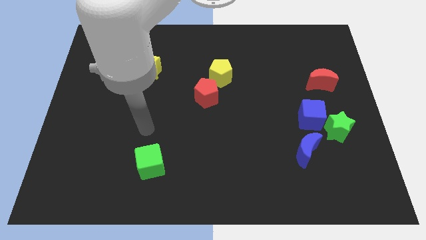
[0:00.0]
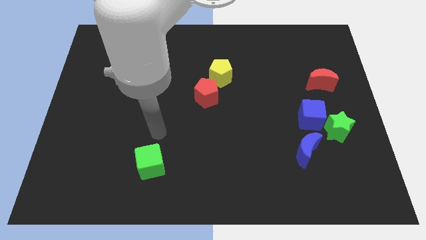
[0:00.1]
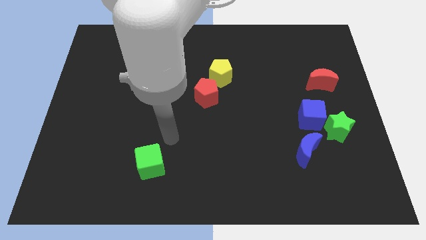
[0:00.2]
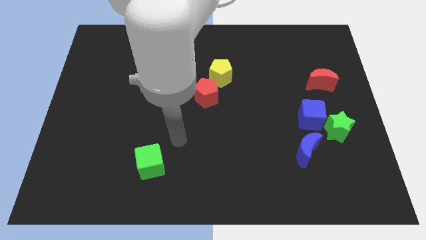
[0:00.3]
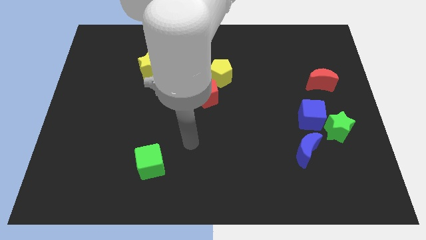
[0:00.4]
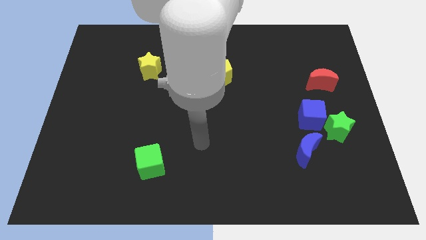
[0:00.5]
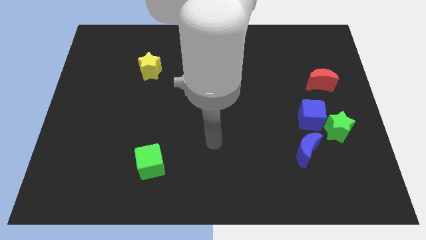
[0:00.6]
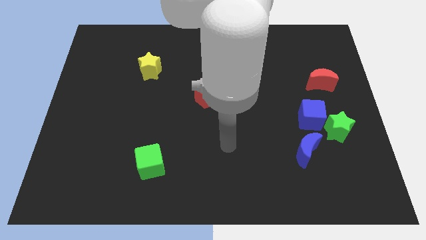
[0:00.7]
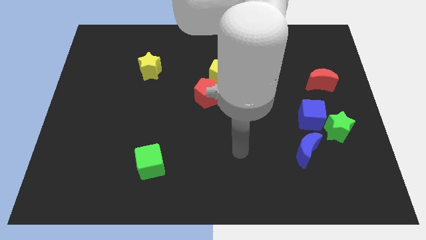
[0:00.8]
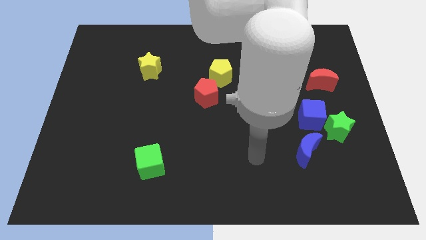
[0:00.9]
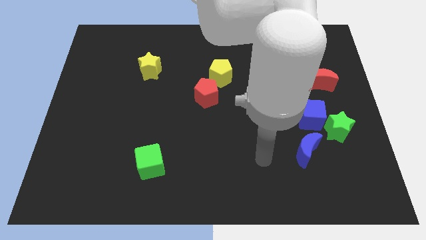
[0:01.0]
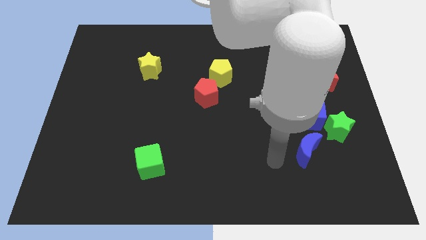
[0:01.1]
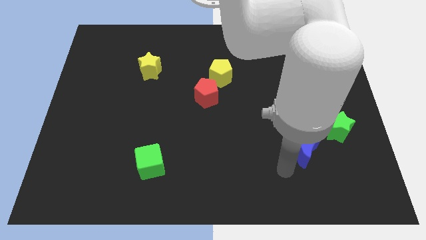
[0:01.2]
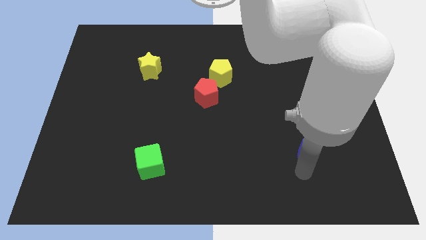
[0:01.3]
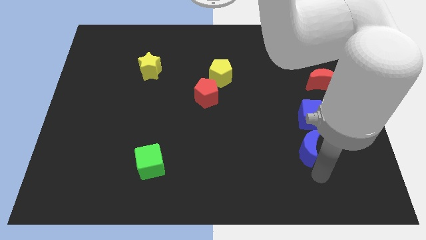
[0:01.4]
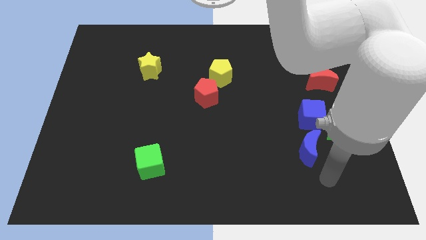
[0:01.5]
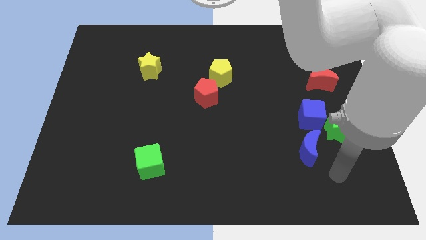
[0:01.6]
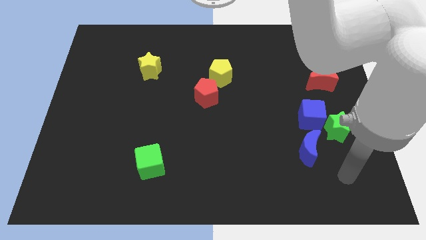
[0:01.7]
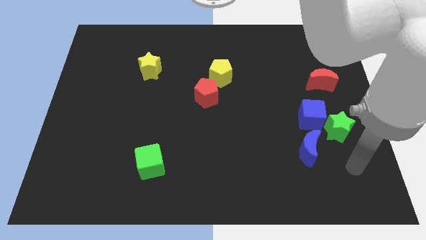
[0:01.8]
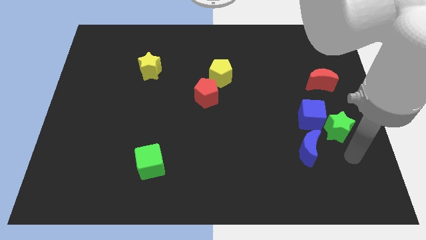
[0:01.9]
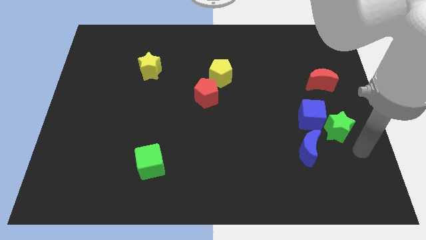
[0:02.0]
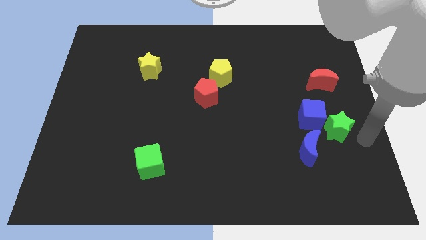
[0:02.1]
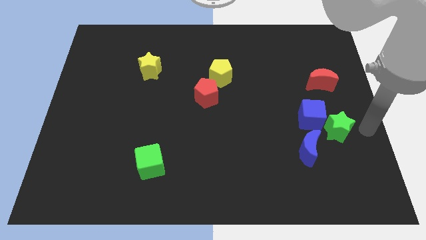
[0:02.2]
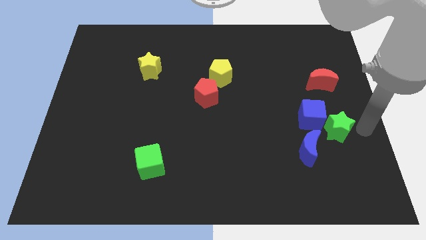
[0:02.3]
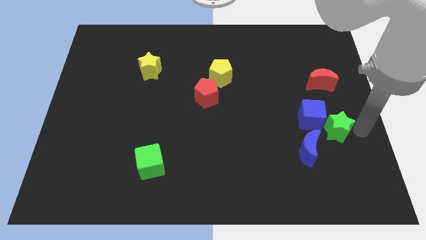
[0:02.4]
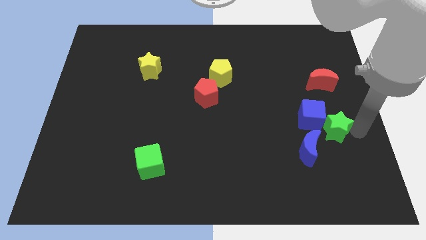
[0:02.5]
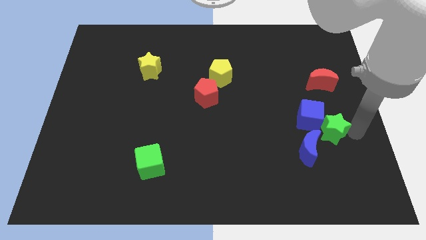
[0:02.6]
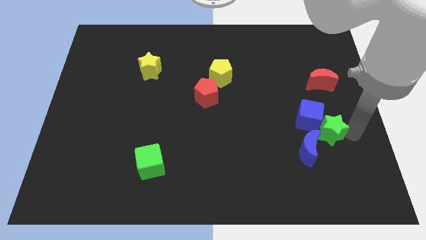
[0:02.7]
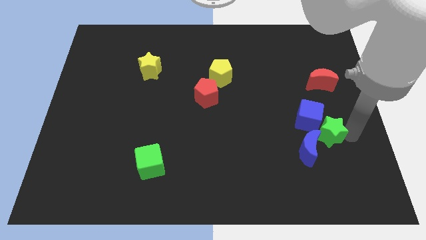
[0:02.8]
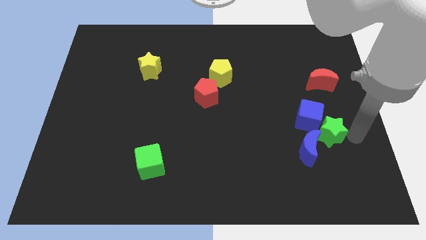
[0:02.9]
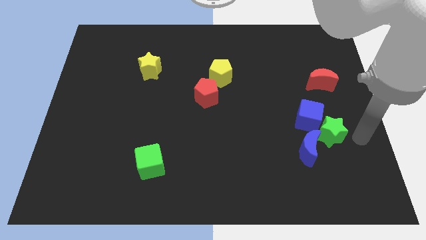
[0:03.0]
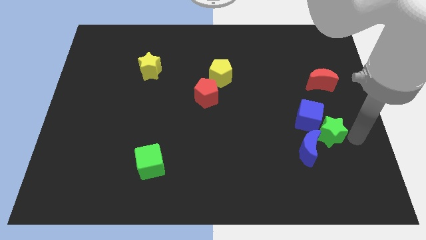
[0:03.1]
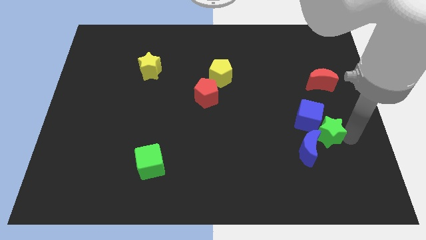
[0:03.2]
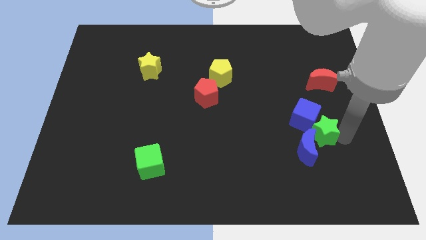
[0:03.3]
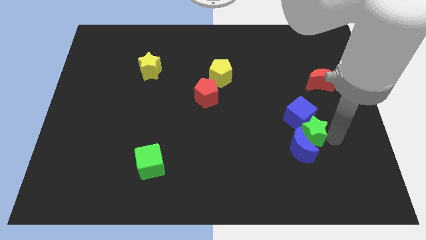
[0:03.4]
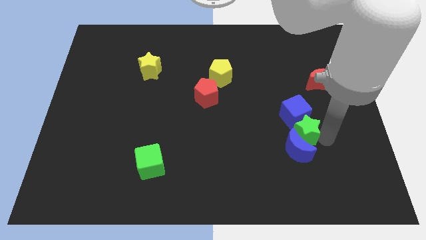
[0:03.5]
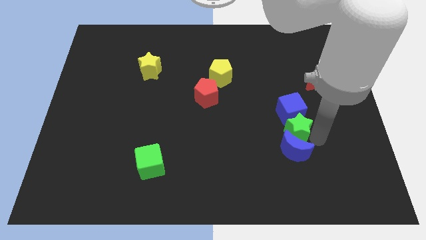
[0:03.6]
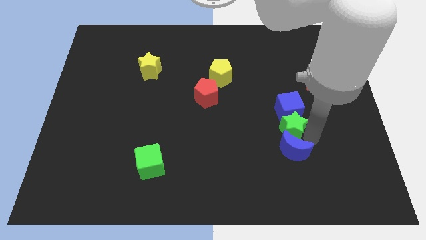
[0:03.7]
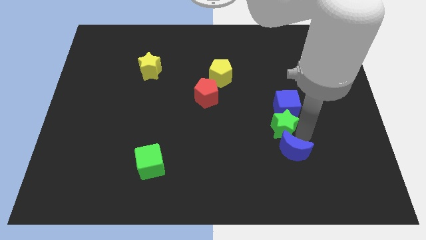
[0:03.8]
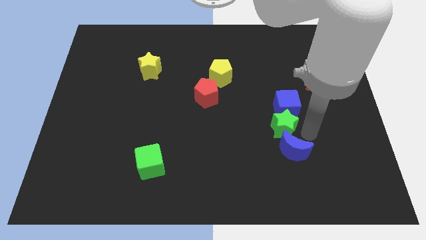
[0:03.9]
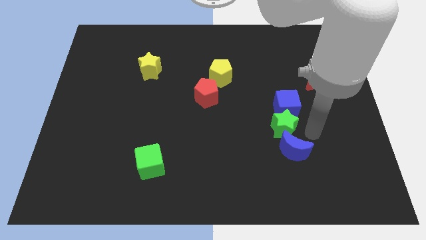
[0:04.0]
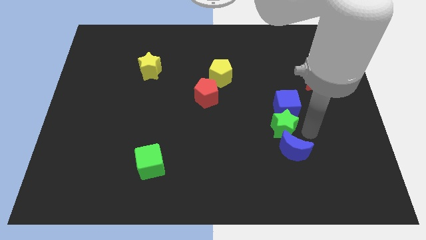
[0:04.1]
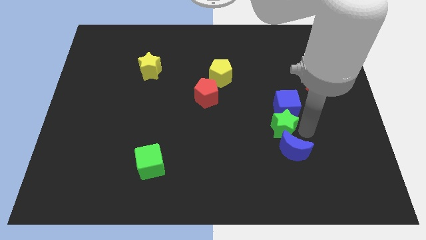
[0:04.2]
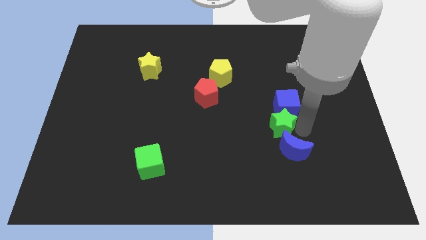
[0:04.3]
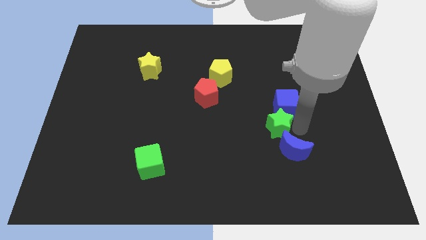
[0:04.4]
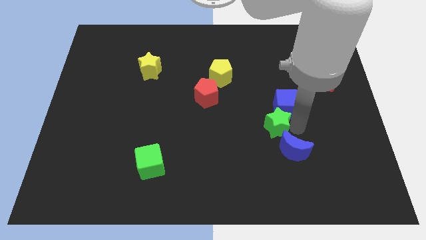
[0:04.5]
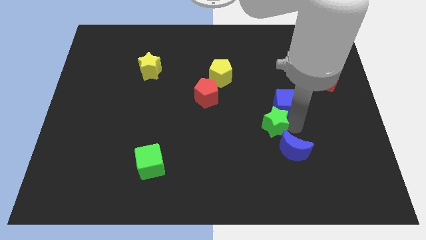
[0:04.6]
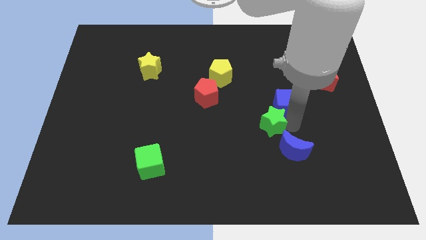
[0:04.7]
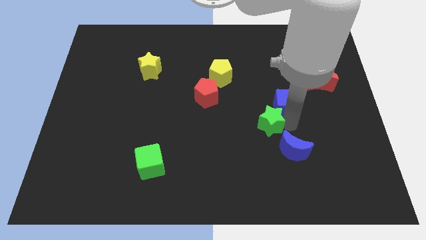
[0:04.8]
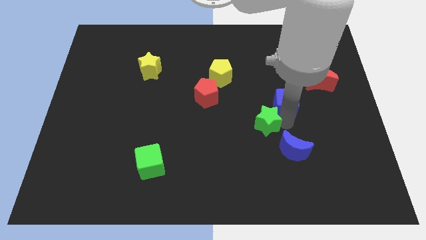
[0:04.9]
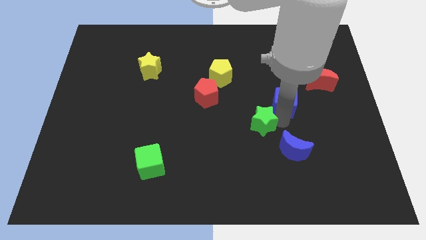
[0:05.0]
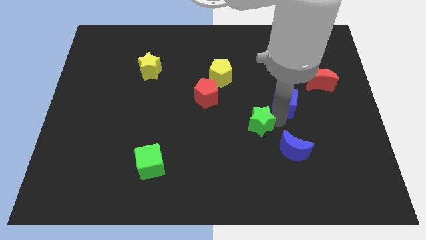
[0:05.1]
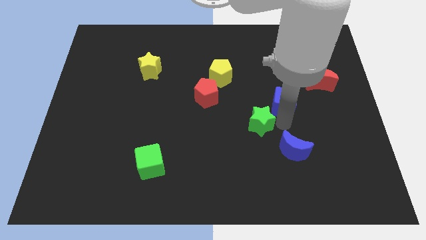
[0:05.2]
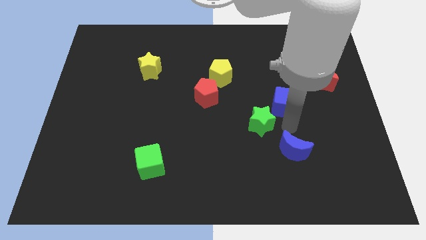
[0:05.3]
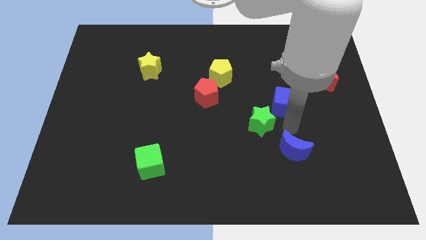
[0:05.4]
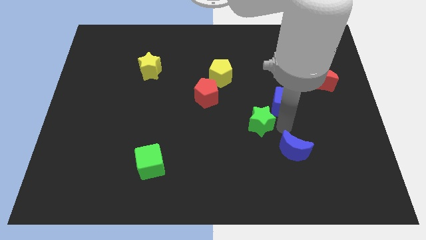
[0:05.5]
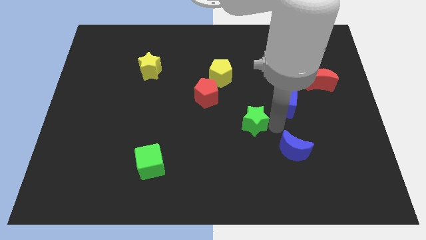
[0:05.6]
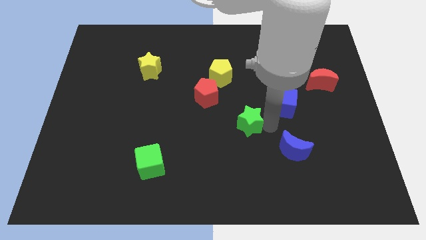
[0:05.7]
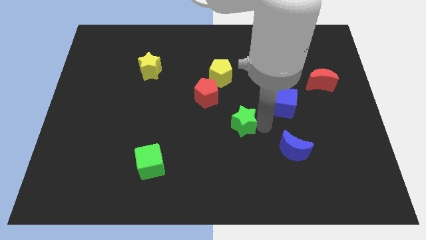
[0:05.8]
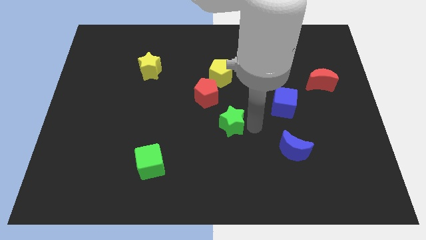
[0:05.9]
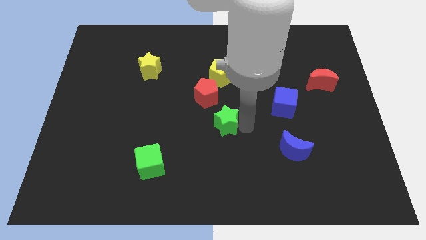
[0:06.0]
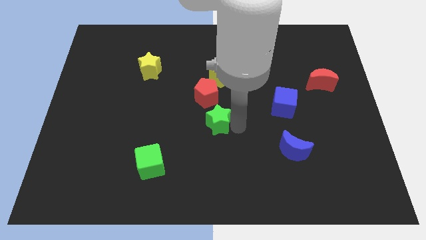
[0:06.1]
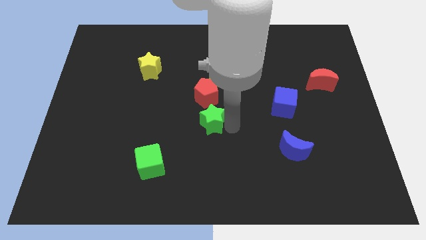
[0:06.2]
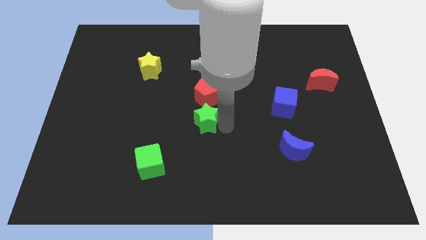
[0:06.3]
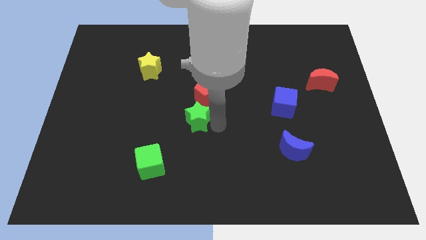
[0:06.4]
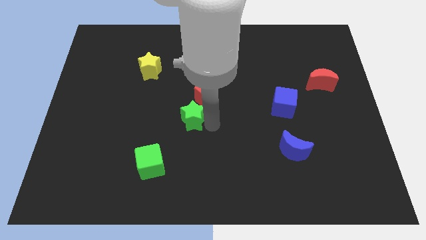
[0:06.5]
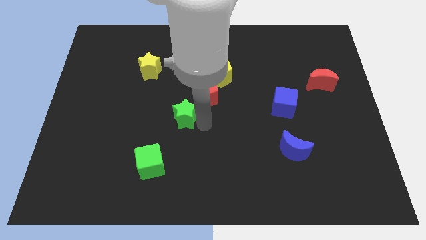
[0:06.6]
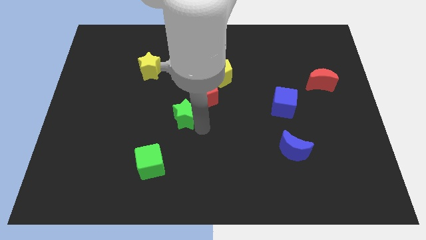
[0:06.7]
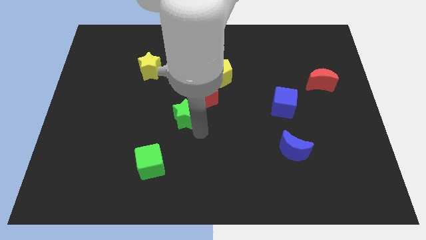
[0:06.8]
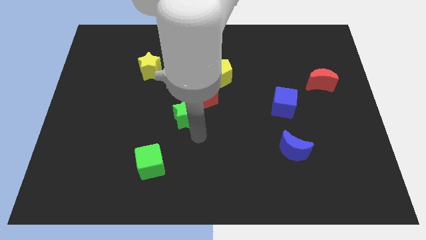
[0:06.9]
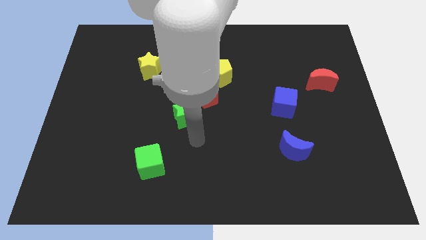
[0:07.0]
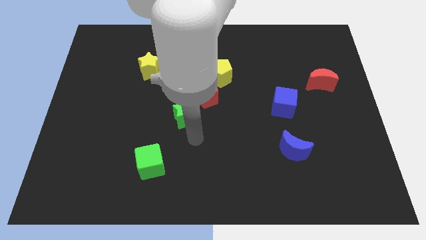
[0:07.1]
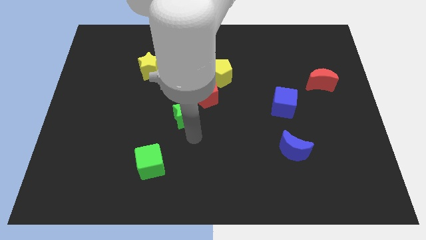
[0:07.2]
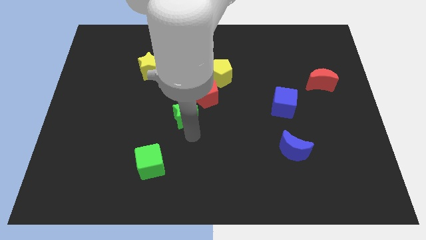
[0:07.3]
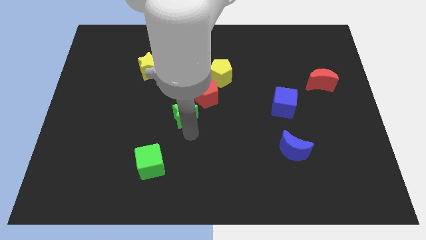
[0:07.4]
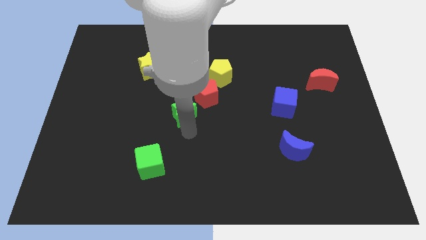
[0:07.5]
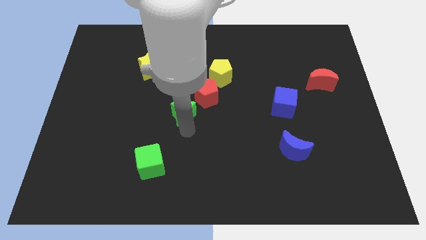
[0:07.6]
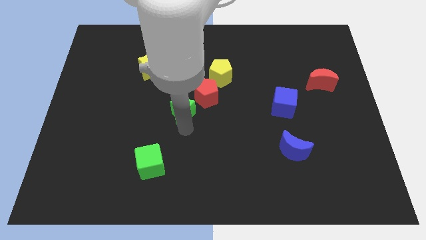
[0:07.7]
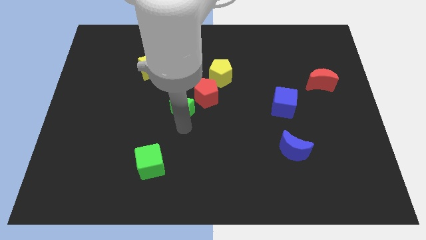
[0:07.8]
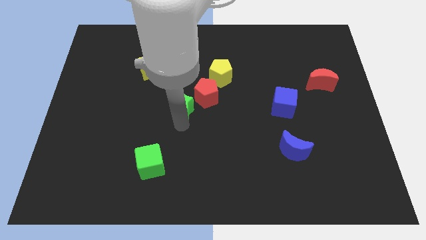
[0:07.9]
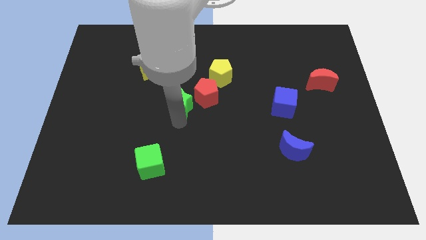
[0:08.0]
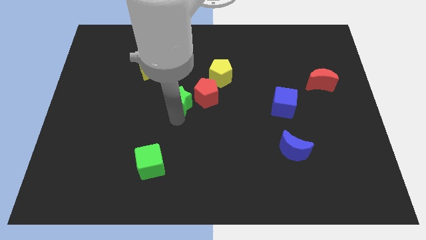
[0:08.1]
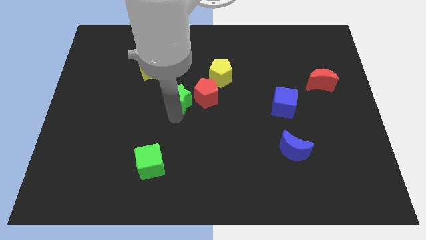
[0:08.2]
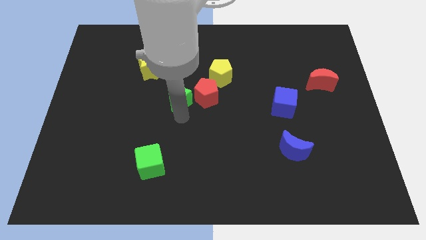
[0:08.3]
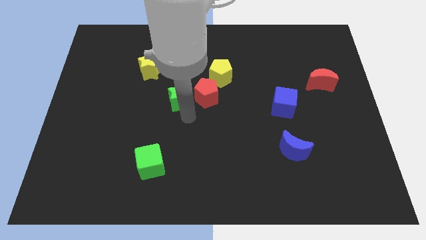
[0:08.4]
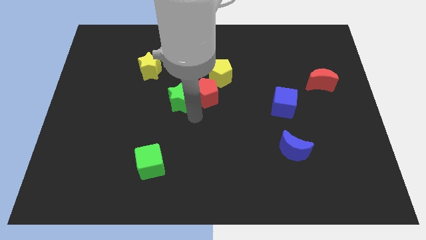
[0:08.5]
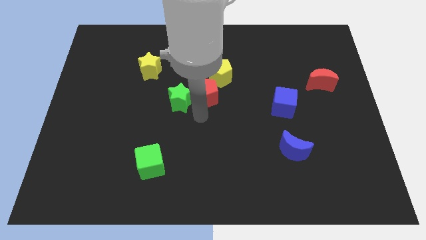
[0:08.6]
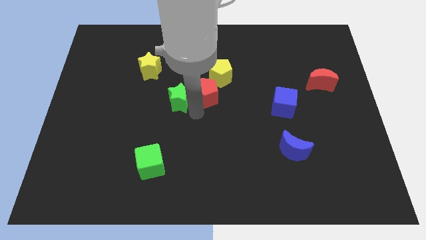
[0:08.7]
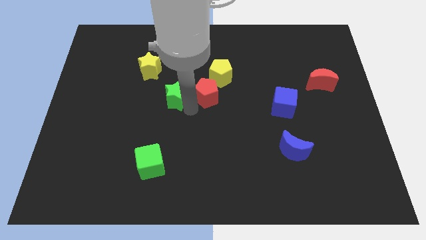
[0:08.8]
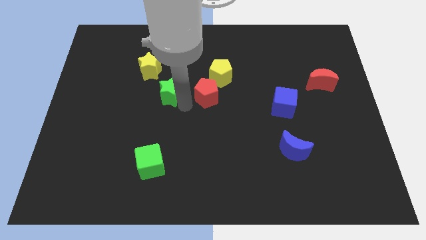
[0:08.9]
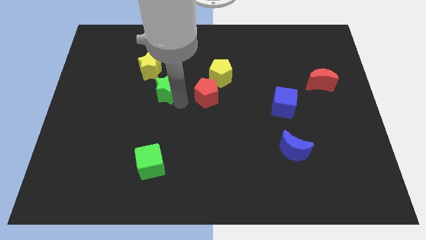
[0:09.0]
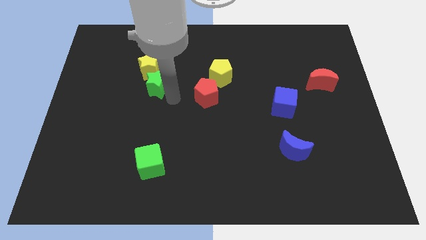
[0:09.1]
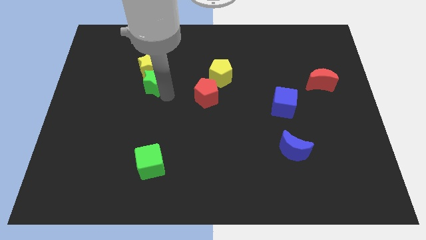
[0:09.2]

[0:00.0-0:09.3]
put the green star close to the yellow star
